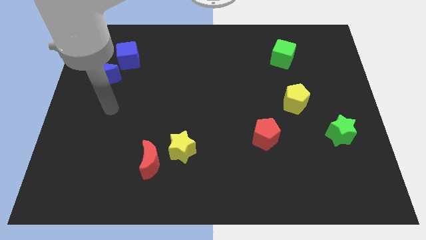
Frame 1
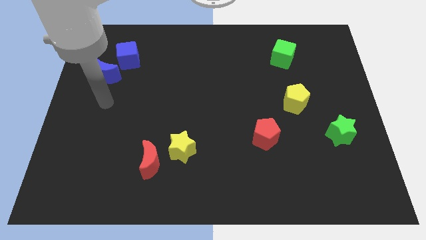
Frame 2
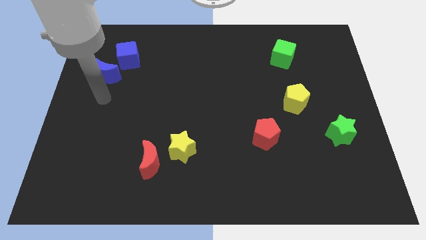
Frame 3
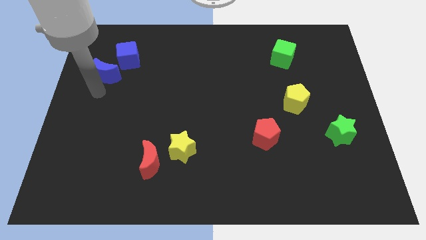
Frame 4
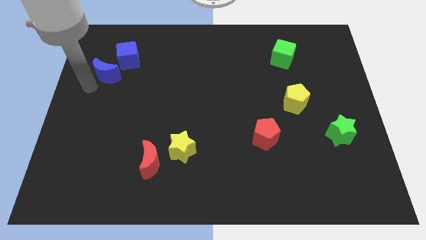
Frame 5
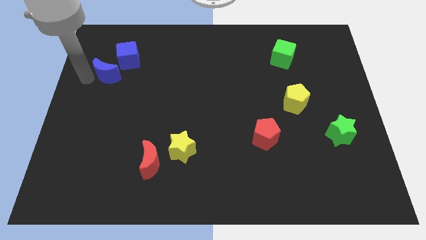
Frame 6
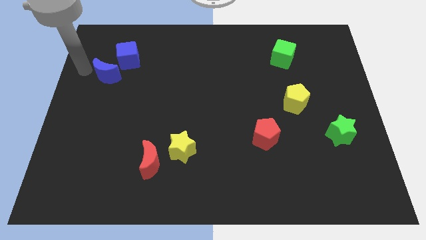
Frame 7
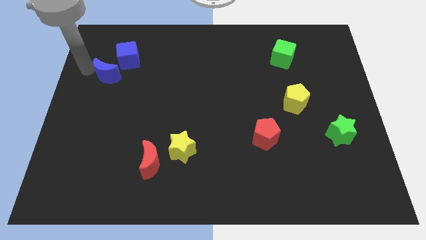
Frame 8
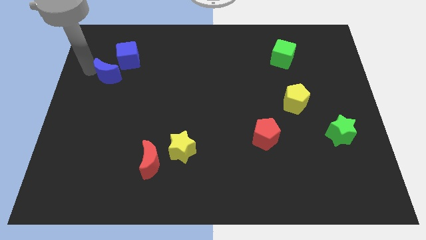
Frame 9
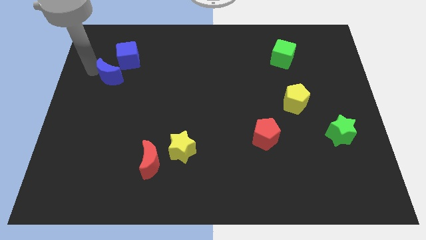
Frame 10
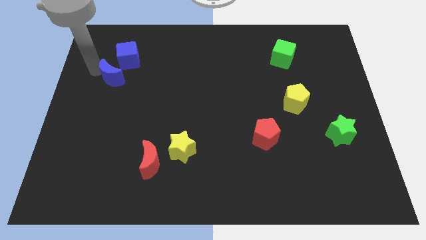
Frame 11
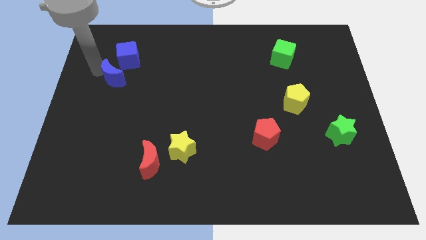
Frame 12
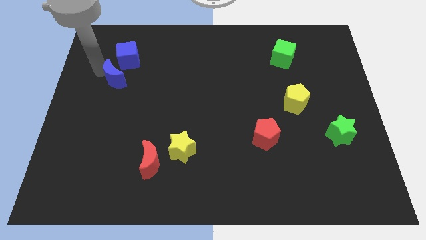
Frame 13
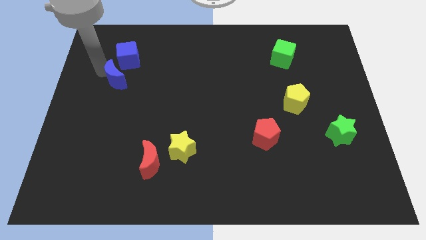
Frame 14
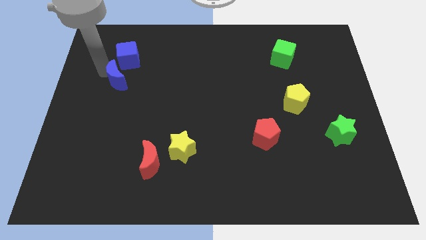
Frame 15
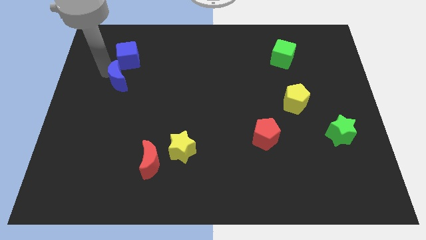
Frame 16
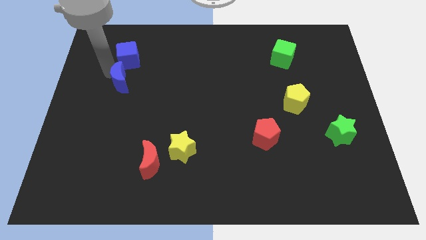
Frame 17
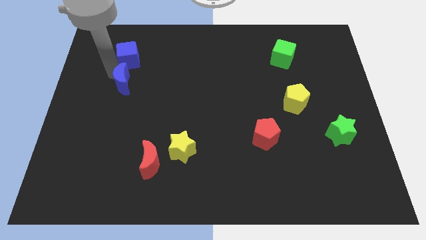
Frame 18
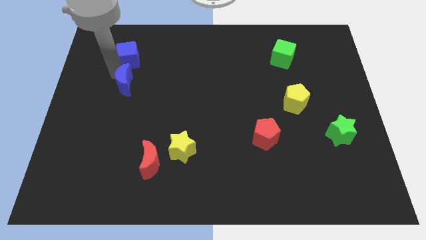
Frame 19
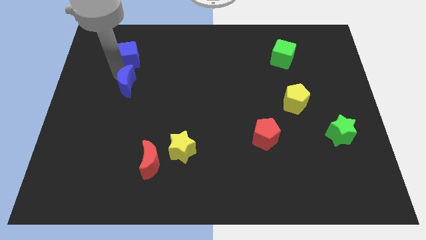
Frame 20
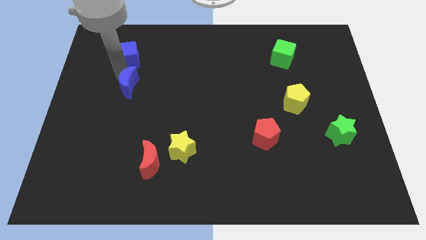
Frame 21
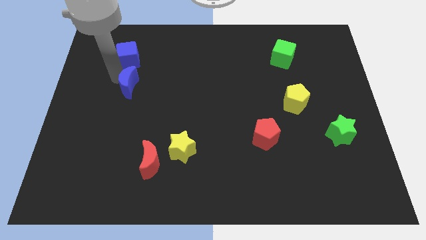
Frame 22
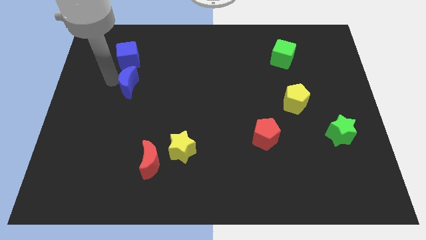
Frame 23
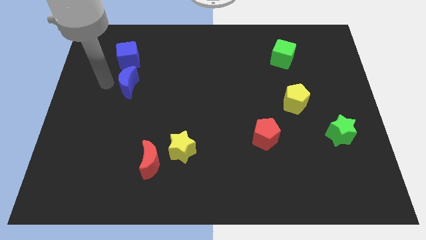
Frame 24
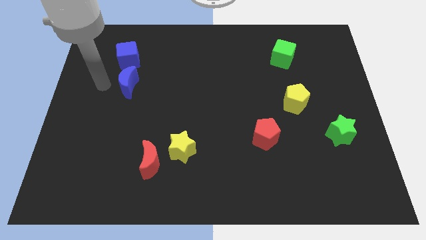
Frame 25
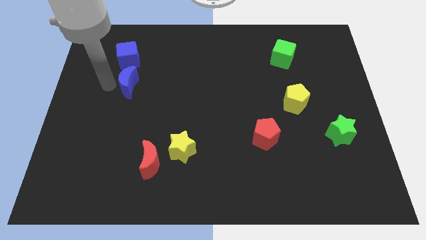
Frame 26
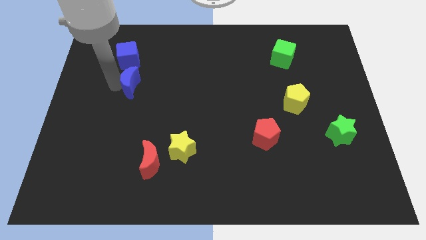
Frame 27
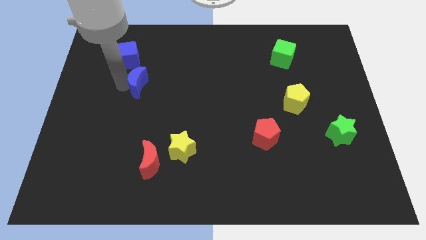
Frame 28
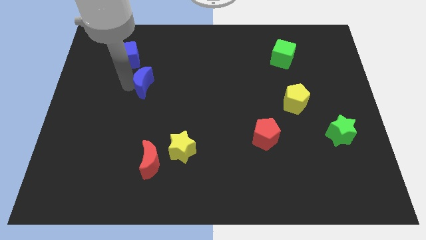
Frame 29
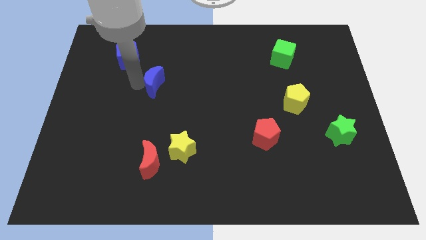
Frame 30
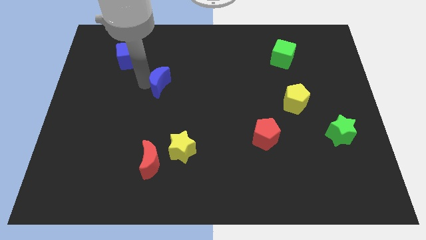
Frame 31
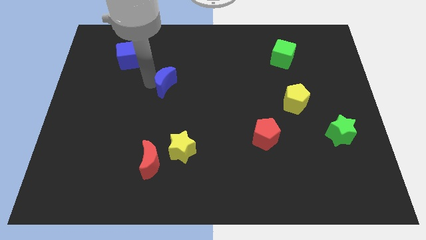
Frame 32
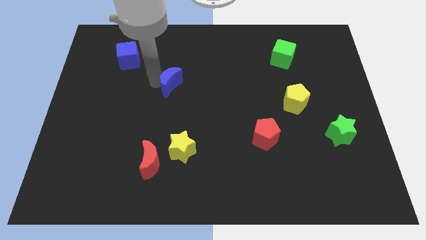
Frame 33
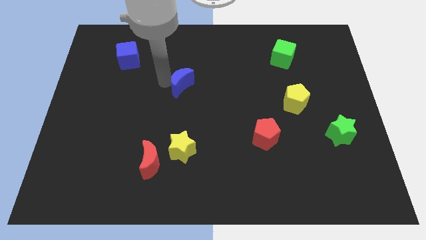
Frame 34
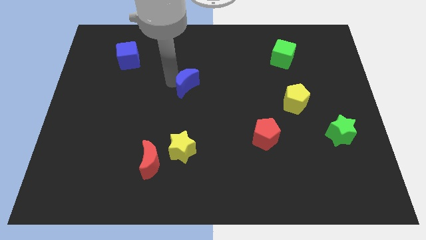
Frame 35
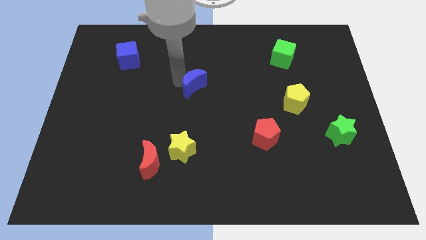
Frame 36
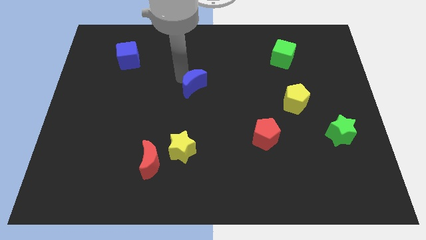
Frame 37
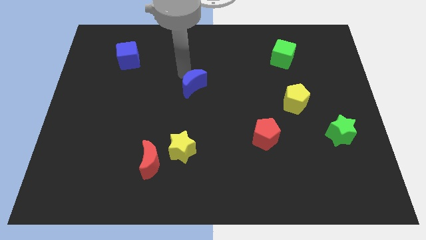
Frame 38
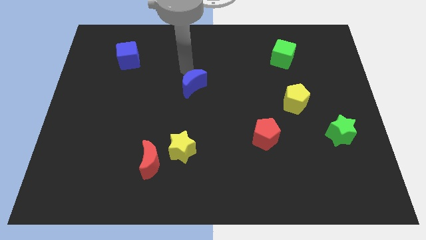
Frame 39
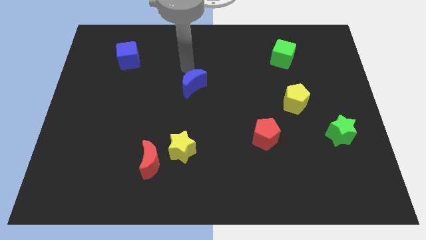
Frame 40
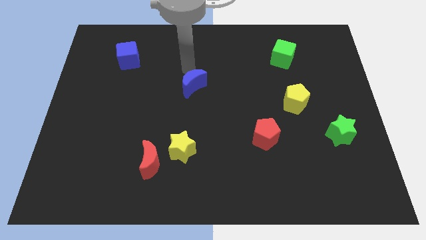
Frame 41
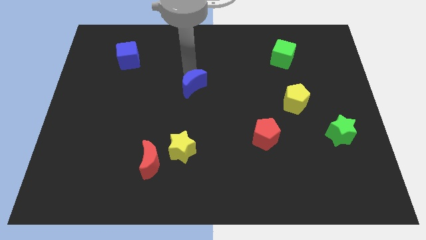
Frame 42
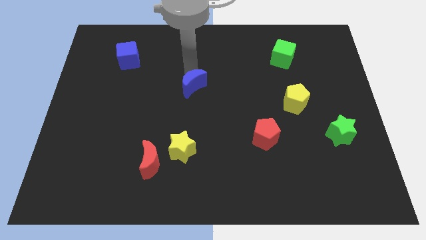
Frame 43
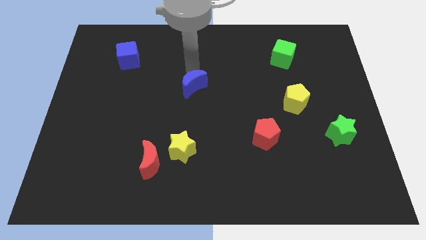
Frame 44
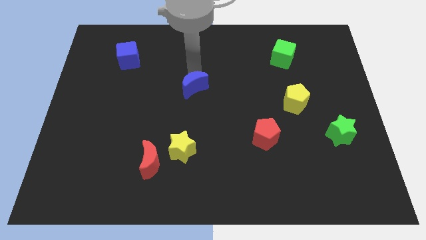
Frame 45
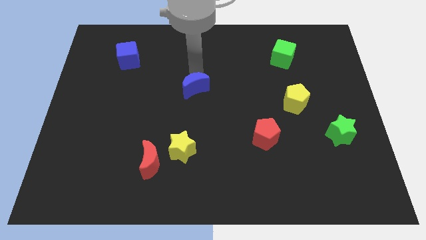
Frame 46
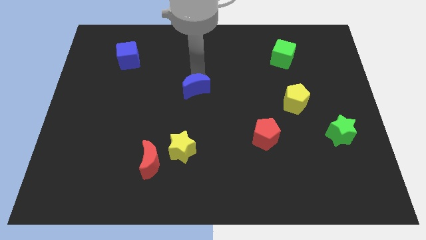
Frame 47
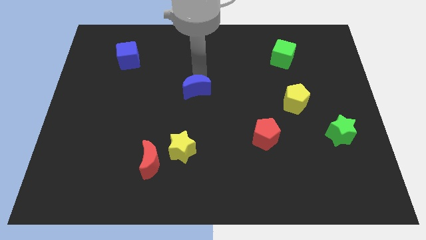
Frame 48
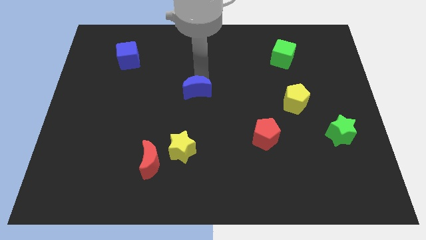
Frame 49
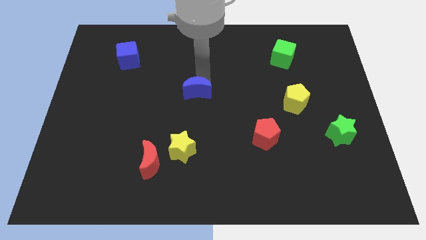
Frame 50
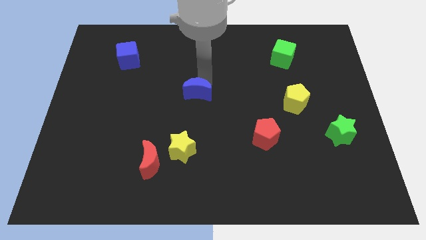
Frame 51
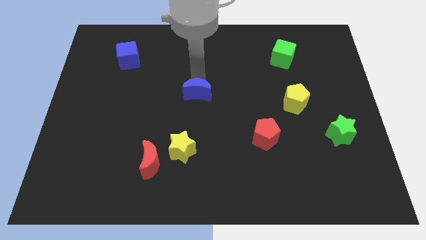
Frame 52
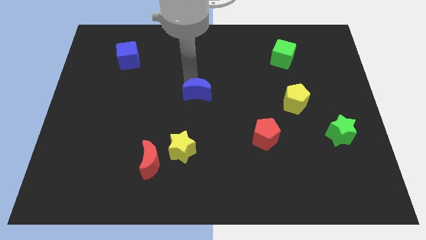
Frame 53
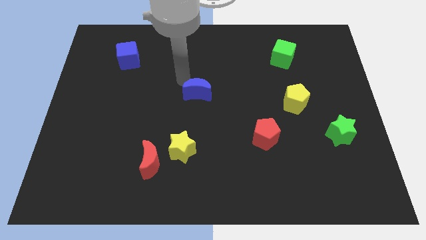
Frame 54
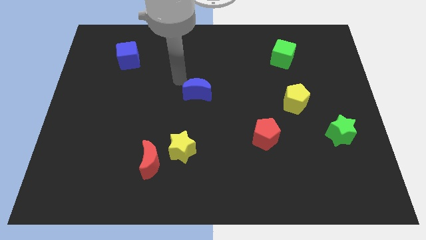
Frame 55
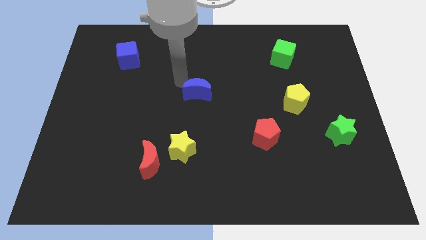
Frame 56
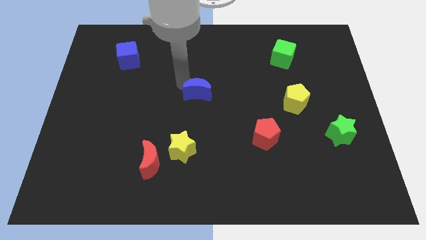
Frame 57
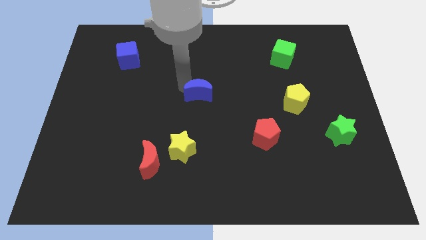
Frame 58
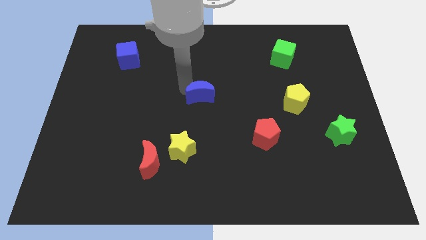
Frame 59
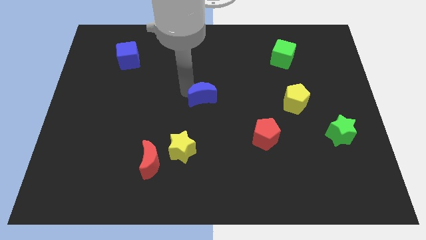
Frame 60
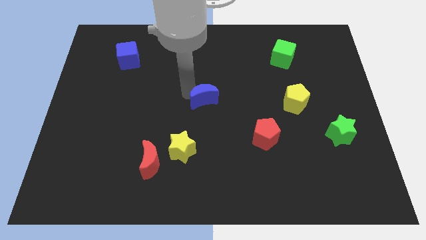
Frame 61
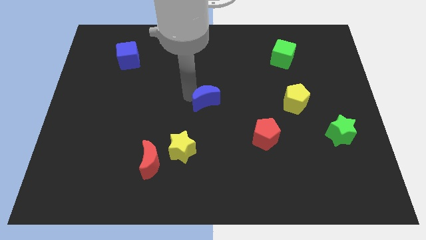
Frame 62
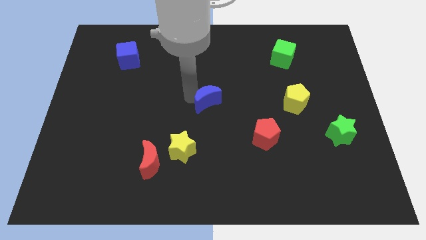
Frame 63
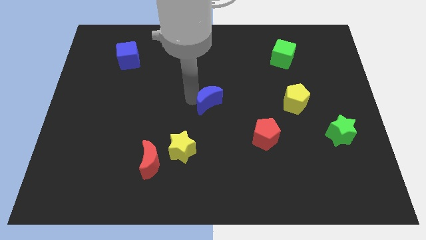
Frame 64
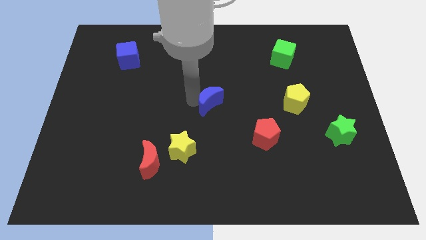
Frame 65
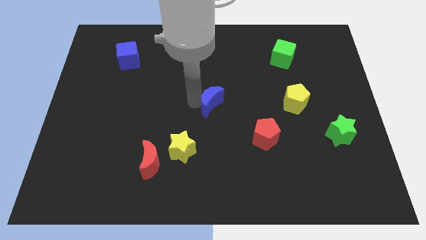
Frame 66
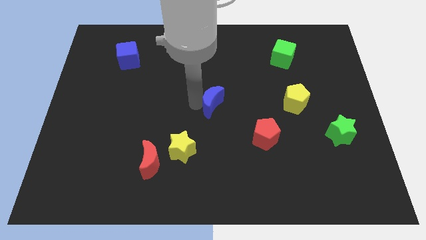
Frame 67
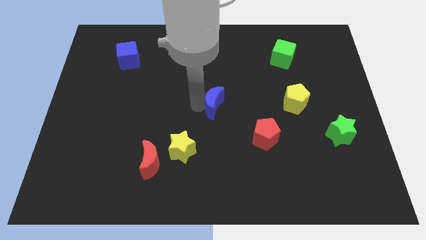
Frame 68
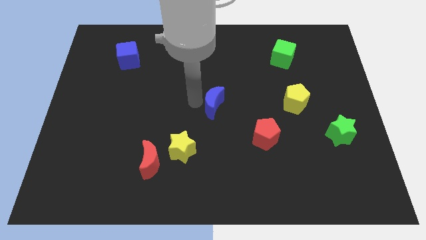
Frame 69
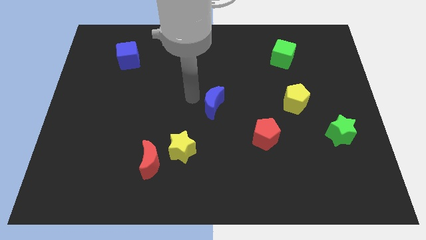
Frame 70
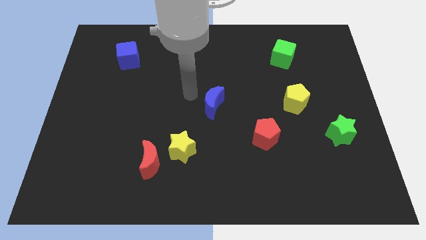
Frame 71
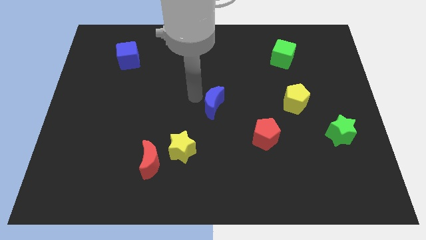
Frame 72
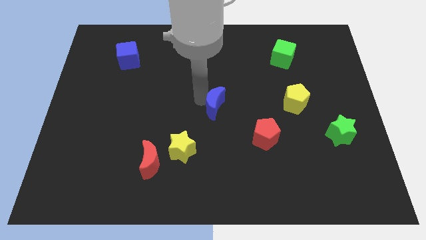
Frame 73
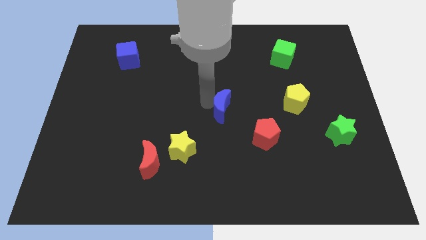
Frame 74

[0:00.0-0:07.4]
push the blue moon to the top left side of the red pentagon
